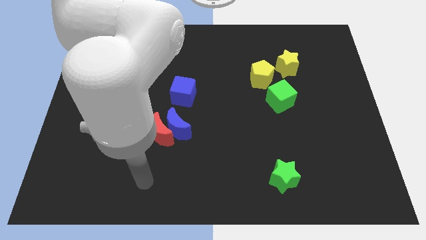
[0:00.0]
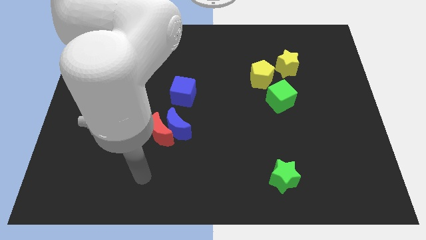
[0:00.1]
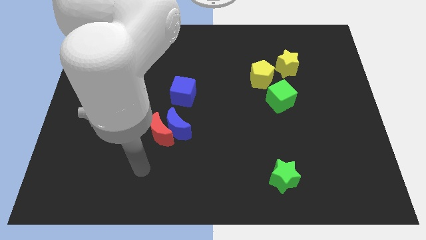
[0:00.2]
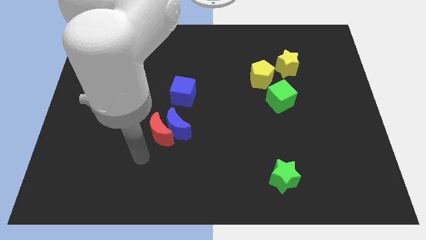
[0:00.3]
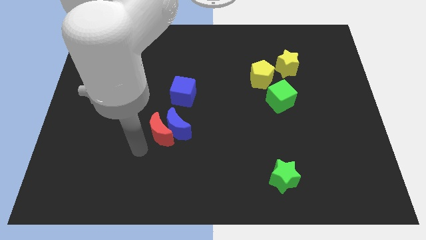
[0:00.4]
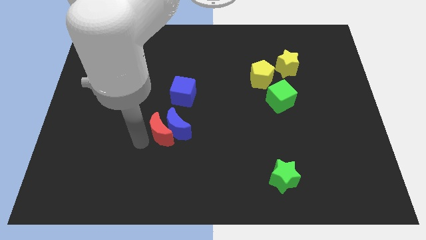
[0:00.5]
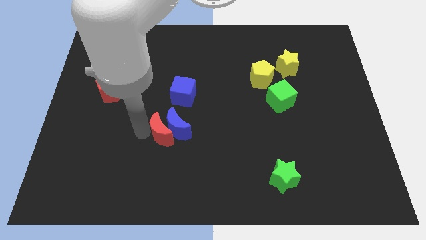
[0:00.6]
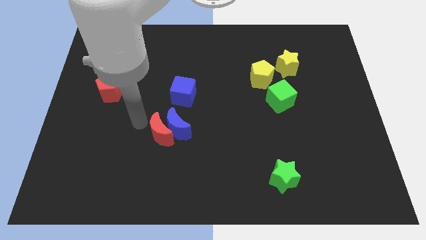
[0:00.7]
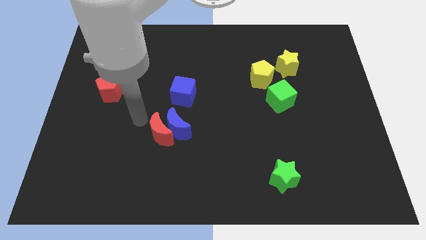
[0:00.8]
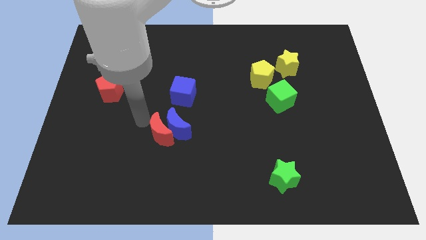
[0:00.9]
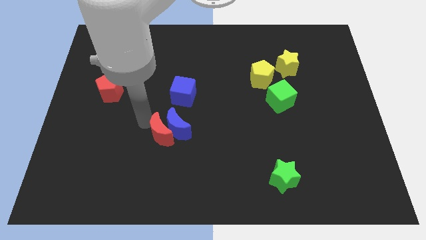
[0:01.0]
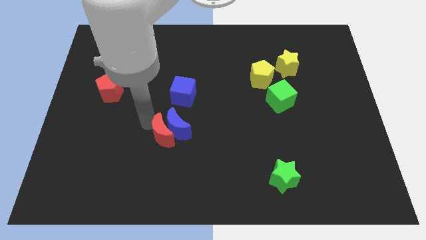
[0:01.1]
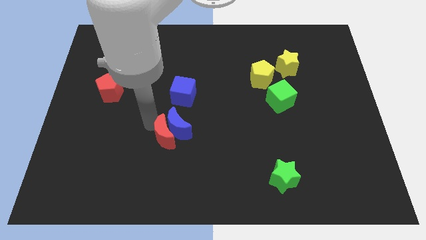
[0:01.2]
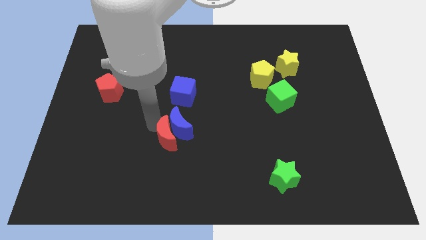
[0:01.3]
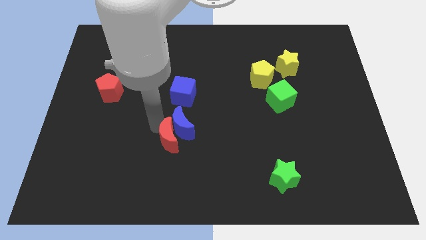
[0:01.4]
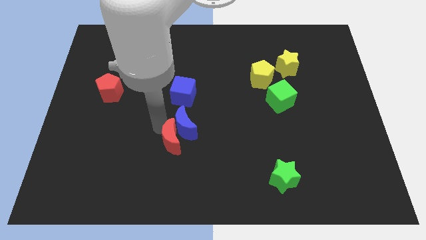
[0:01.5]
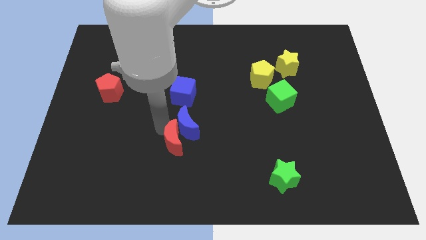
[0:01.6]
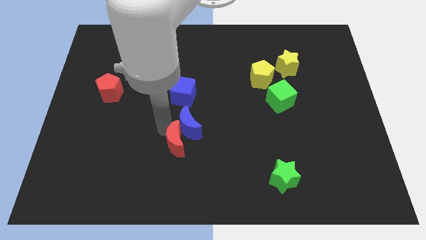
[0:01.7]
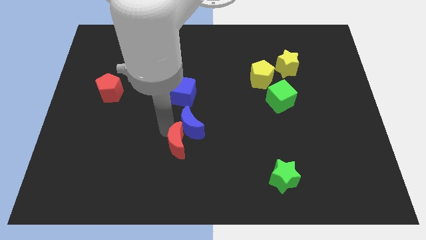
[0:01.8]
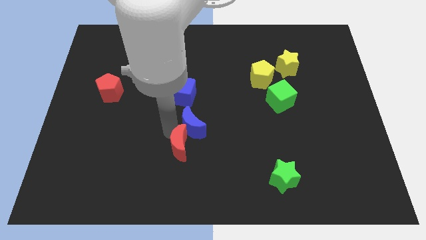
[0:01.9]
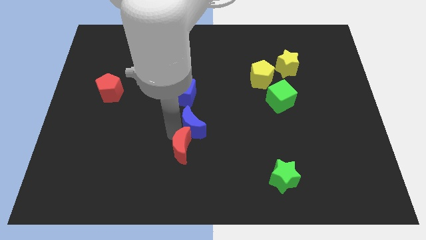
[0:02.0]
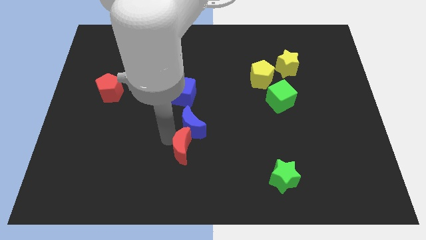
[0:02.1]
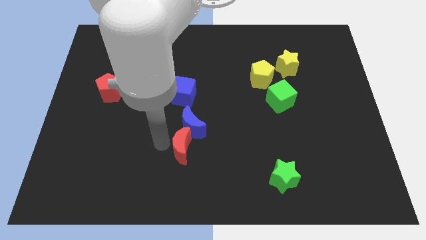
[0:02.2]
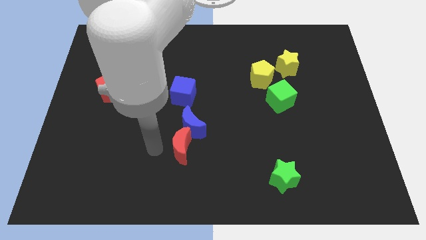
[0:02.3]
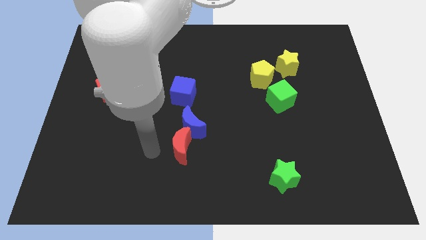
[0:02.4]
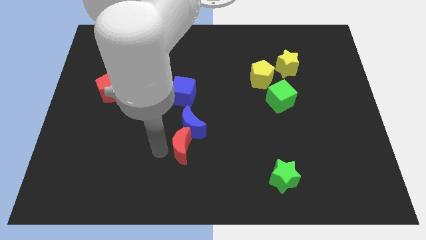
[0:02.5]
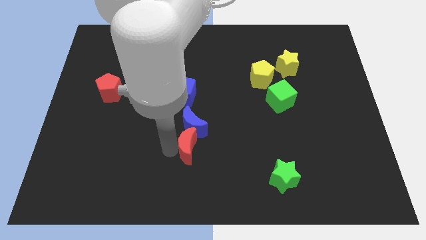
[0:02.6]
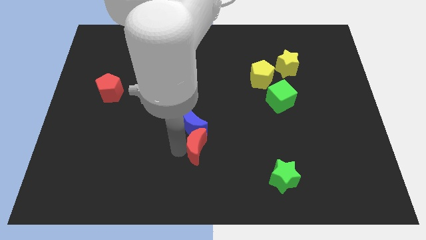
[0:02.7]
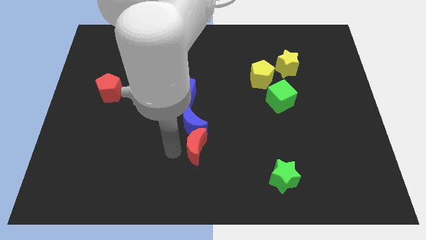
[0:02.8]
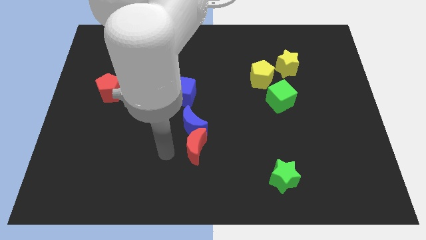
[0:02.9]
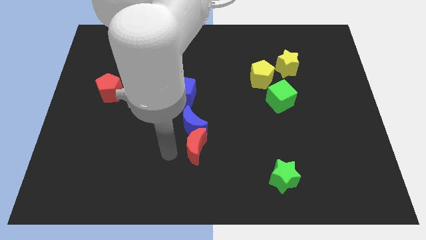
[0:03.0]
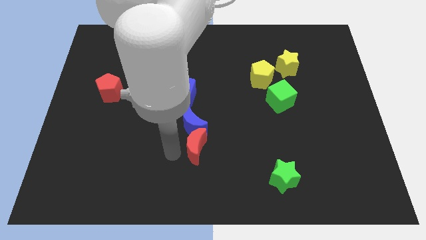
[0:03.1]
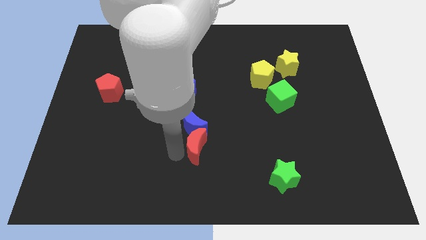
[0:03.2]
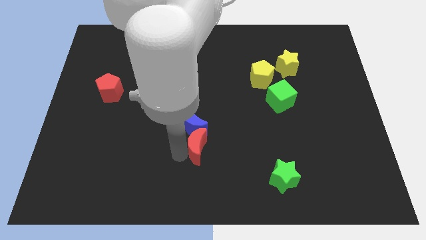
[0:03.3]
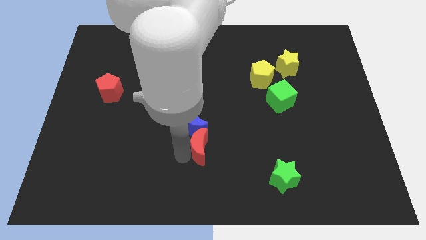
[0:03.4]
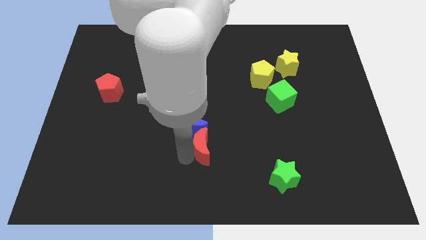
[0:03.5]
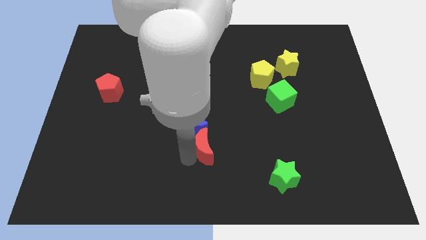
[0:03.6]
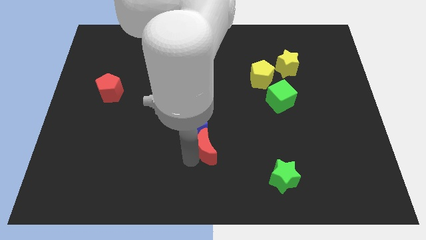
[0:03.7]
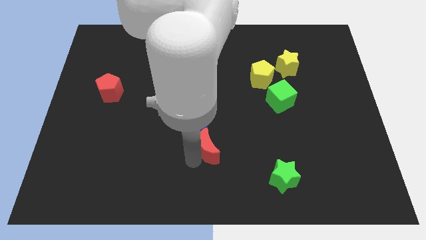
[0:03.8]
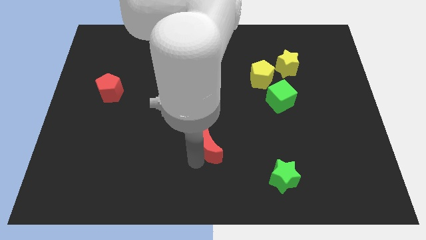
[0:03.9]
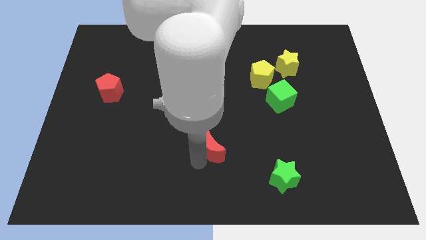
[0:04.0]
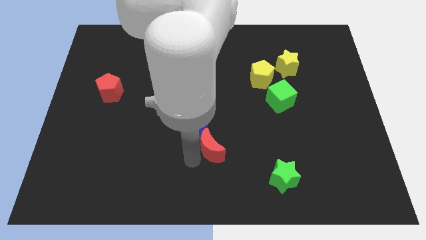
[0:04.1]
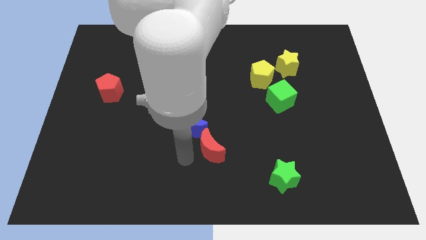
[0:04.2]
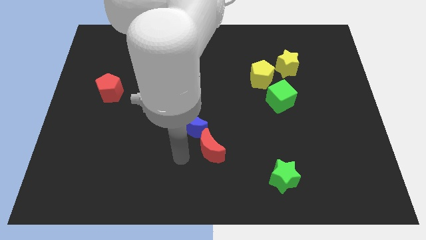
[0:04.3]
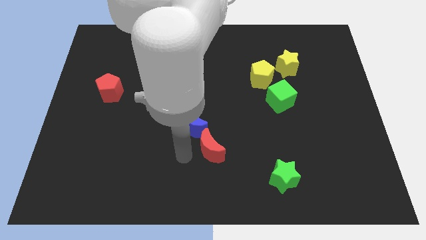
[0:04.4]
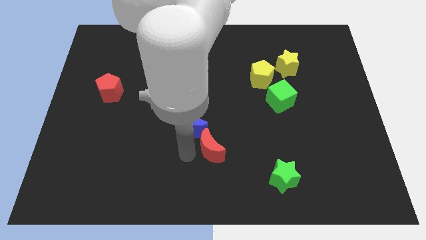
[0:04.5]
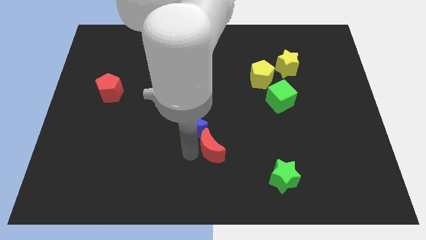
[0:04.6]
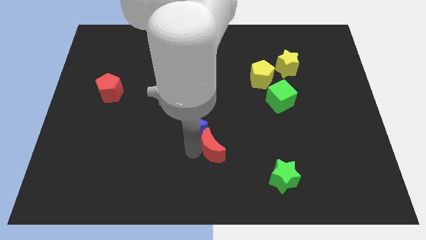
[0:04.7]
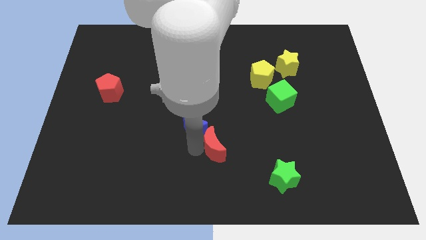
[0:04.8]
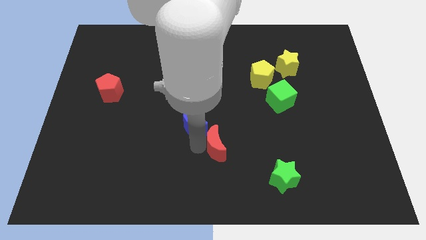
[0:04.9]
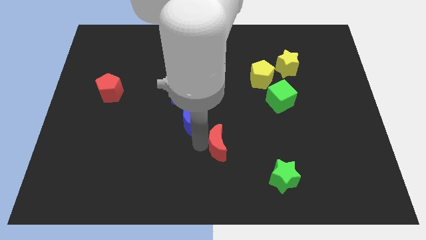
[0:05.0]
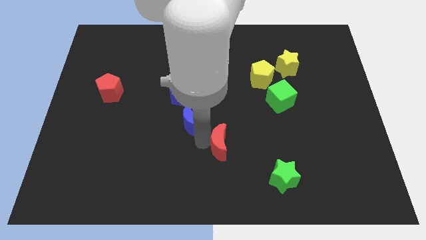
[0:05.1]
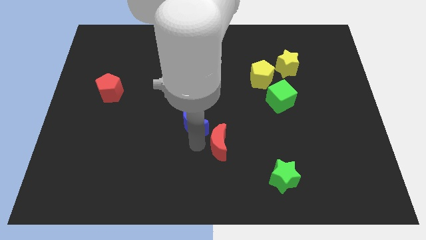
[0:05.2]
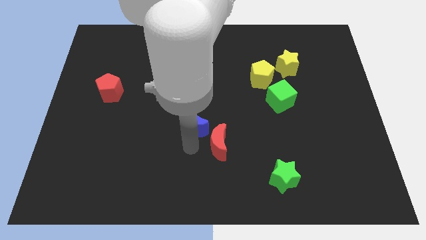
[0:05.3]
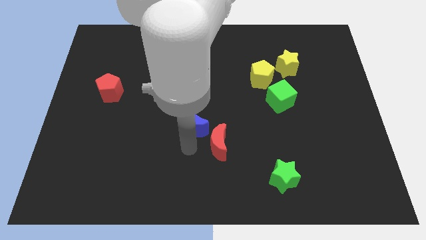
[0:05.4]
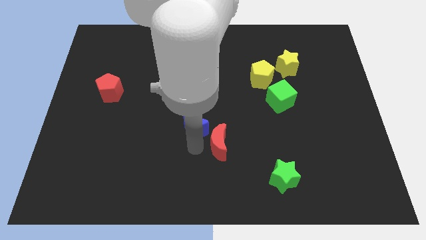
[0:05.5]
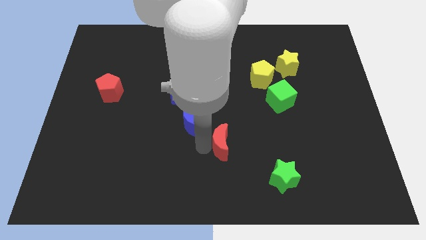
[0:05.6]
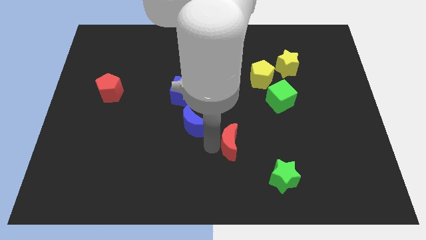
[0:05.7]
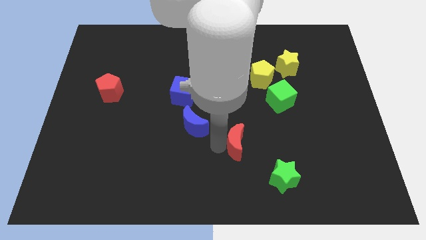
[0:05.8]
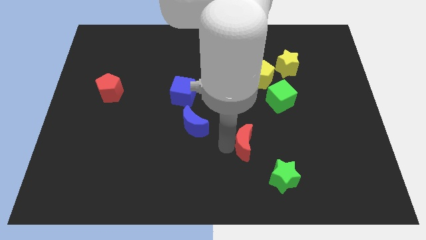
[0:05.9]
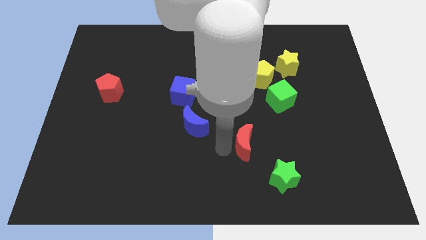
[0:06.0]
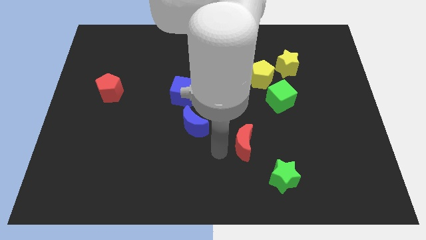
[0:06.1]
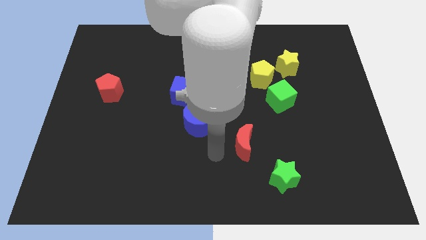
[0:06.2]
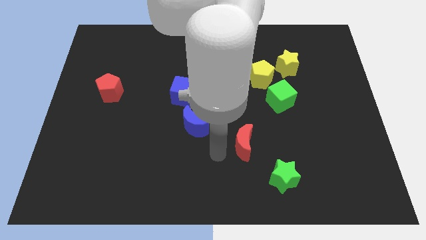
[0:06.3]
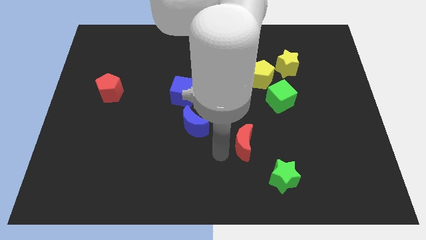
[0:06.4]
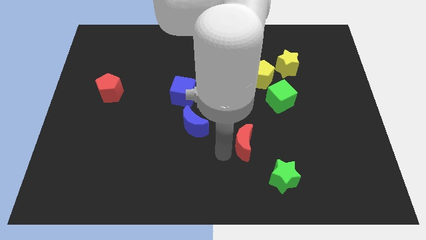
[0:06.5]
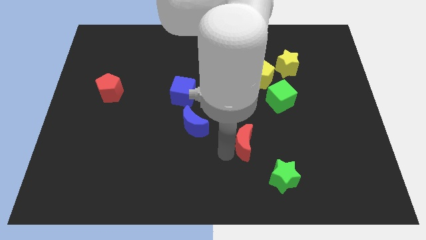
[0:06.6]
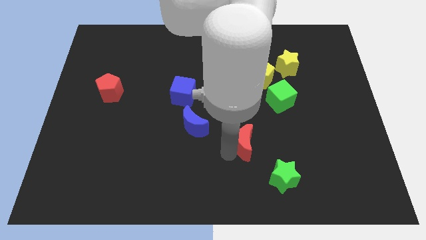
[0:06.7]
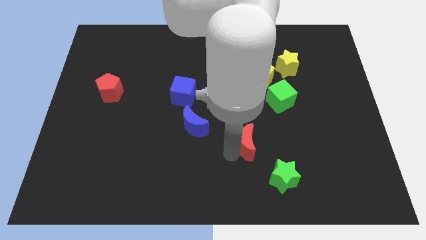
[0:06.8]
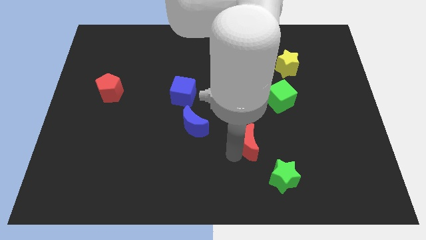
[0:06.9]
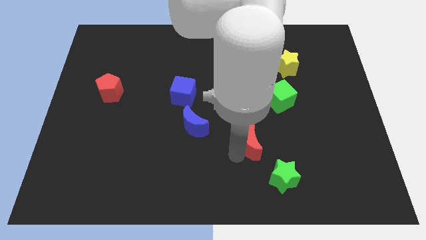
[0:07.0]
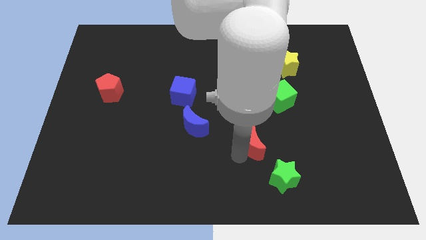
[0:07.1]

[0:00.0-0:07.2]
move the red moon to the right

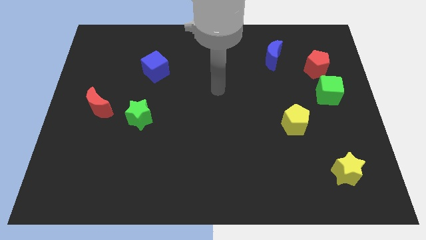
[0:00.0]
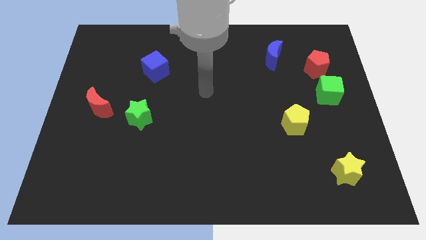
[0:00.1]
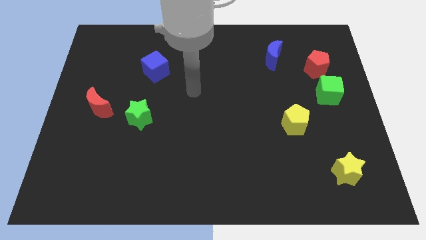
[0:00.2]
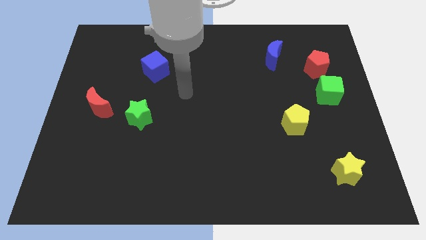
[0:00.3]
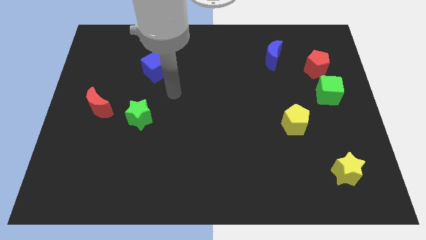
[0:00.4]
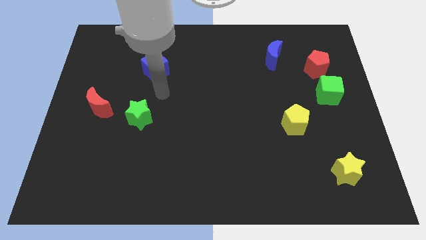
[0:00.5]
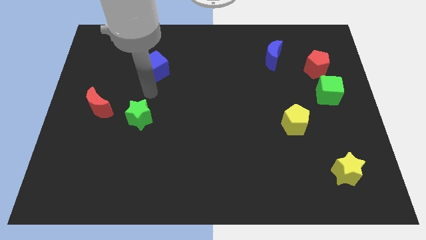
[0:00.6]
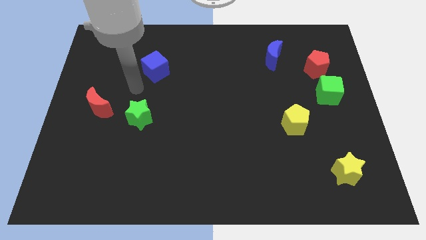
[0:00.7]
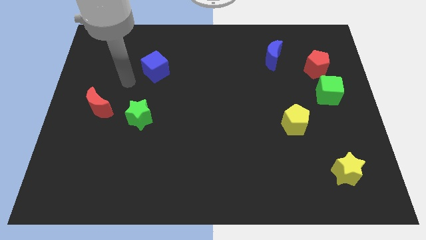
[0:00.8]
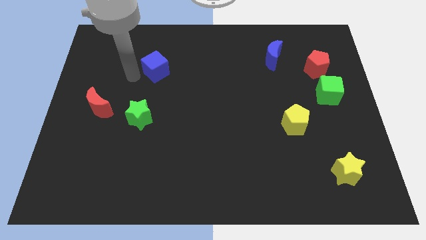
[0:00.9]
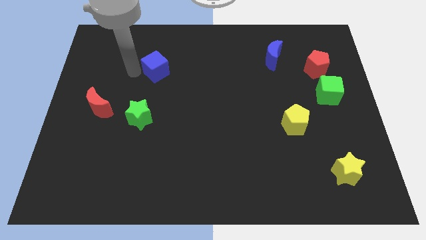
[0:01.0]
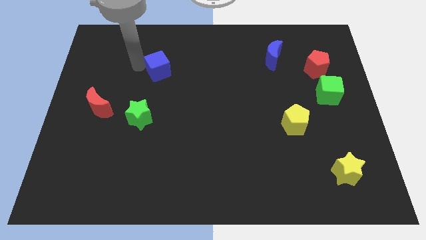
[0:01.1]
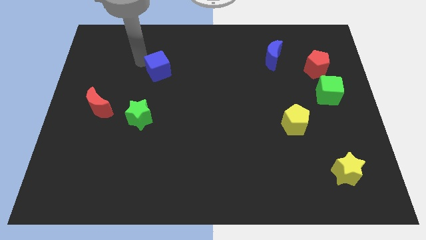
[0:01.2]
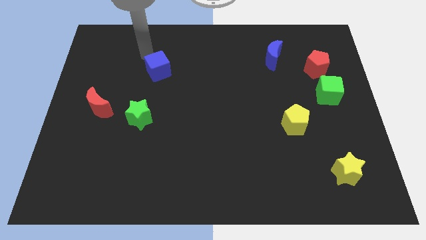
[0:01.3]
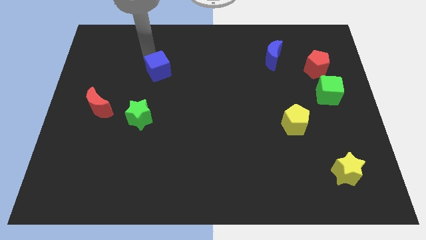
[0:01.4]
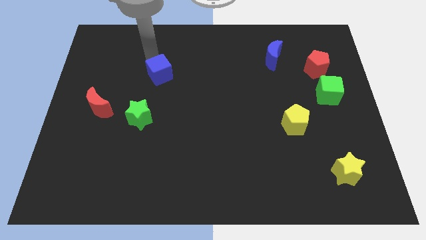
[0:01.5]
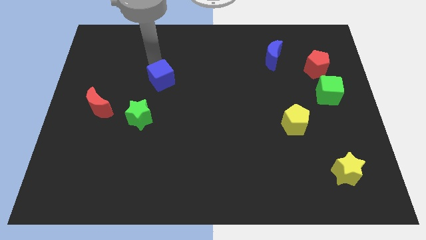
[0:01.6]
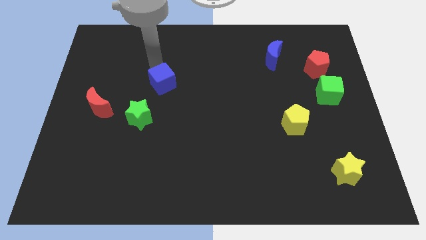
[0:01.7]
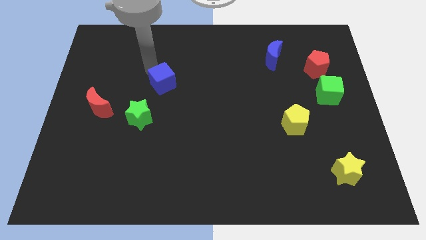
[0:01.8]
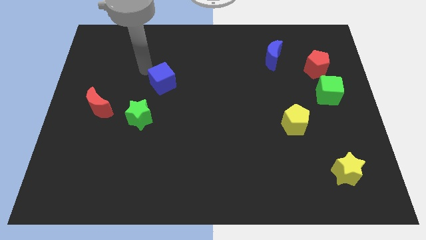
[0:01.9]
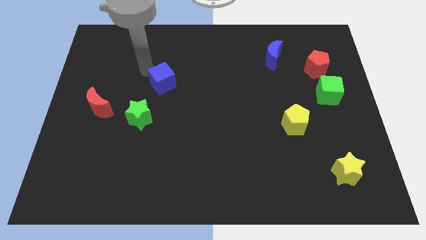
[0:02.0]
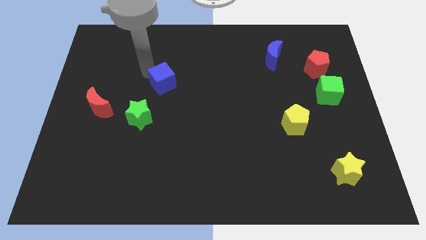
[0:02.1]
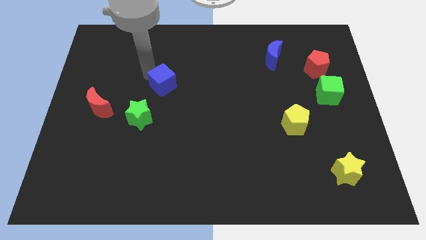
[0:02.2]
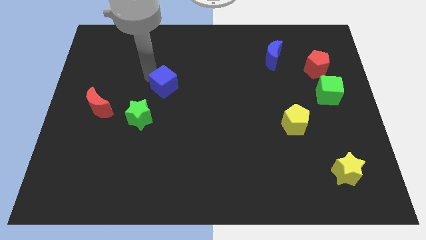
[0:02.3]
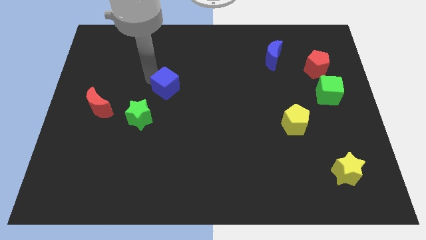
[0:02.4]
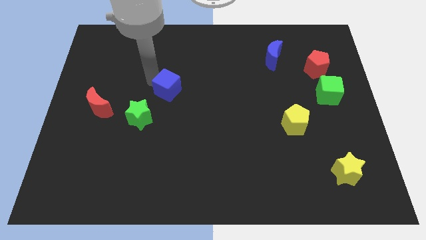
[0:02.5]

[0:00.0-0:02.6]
move the blue cube somewhat down and then to the right
